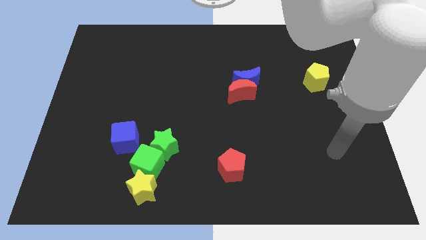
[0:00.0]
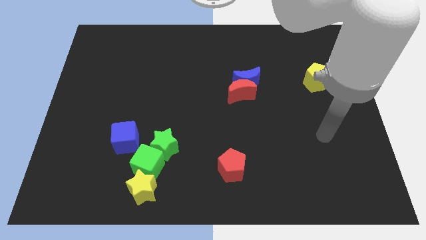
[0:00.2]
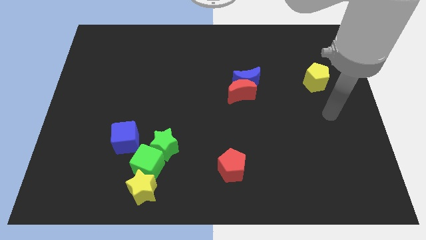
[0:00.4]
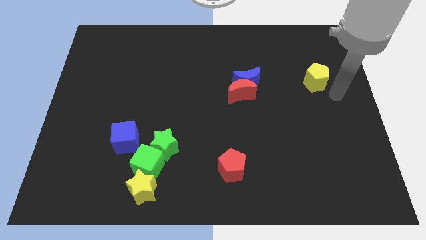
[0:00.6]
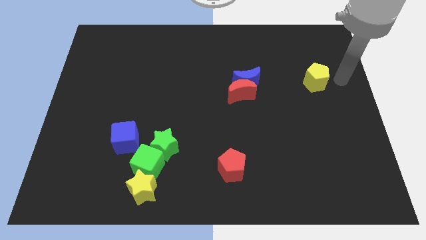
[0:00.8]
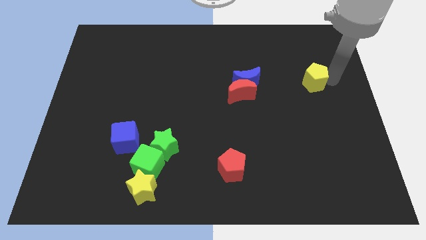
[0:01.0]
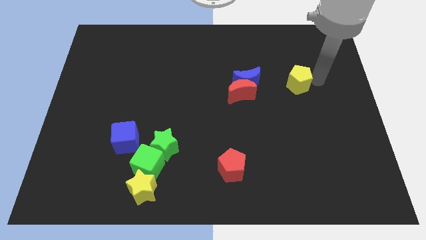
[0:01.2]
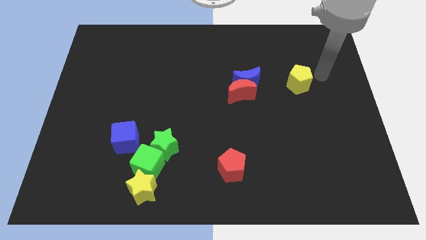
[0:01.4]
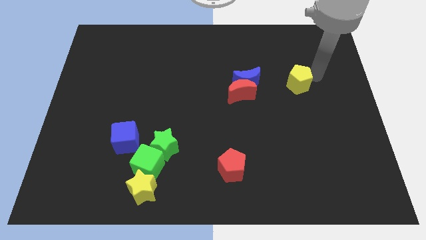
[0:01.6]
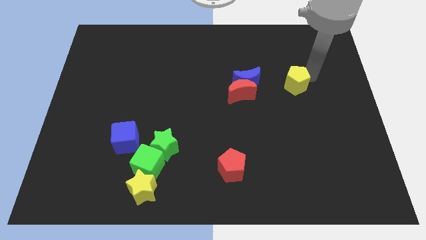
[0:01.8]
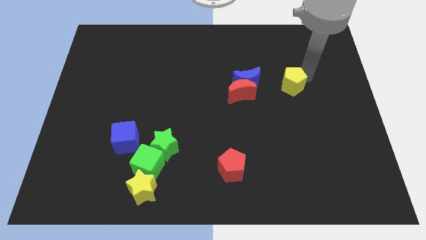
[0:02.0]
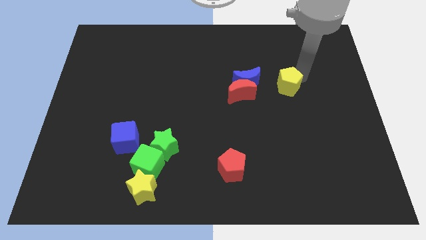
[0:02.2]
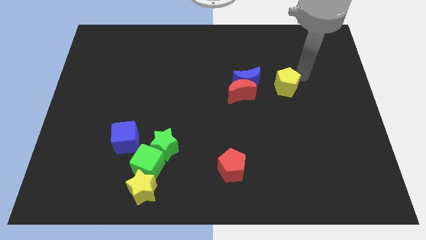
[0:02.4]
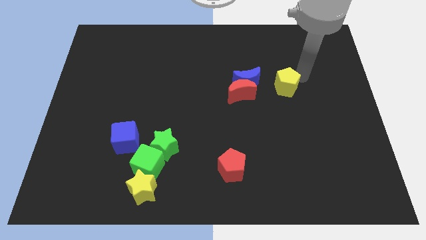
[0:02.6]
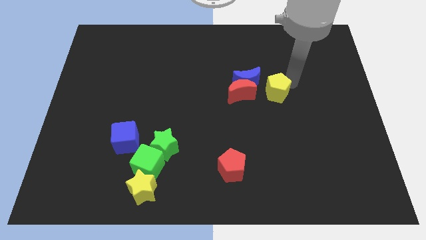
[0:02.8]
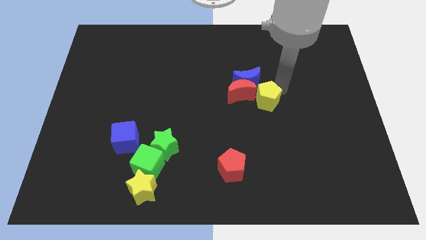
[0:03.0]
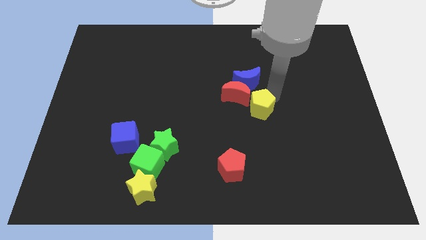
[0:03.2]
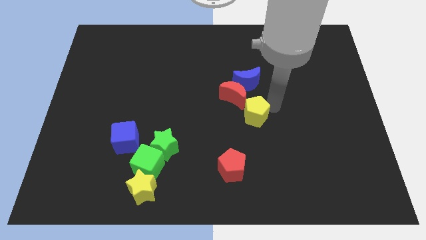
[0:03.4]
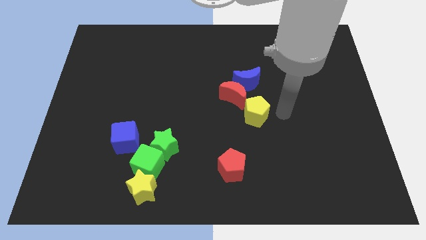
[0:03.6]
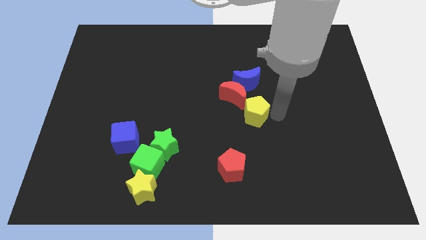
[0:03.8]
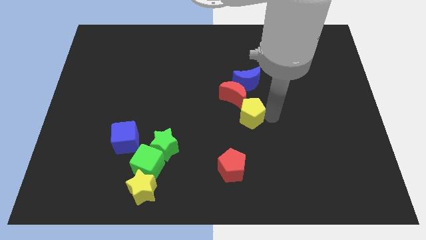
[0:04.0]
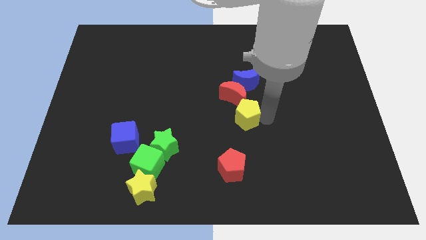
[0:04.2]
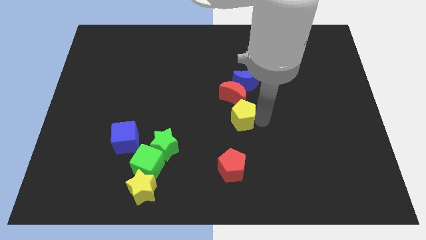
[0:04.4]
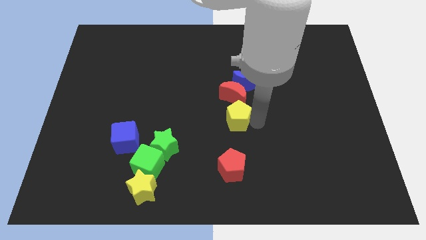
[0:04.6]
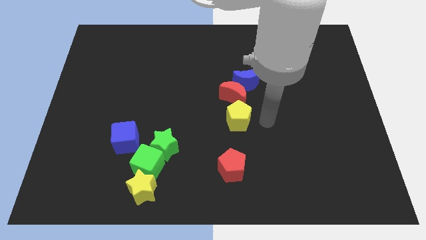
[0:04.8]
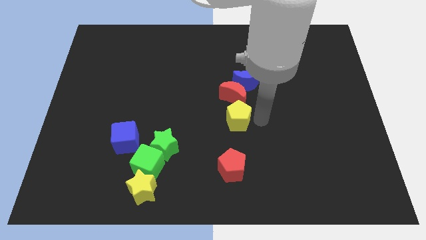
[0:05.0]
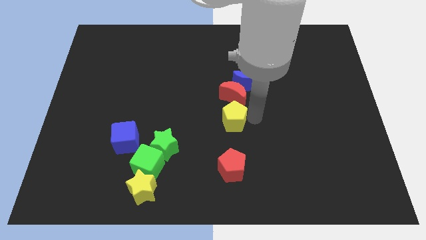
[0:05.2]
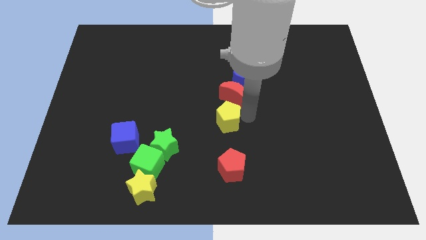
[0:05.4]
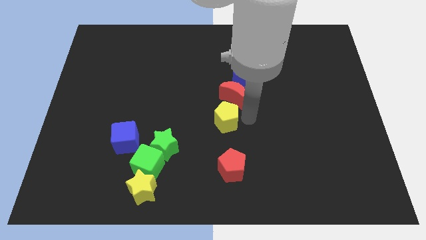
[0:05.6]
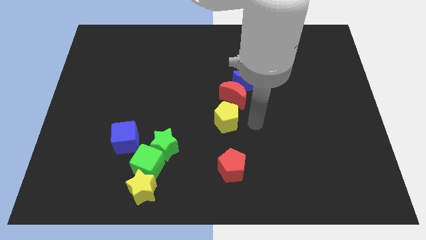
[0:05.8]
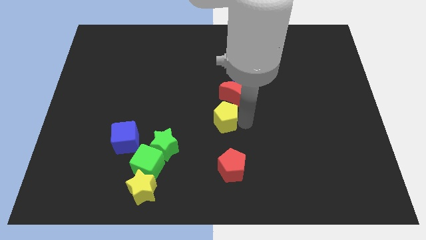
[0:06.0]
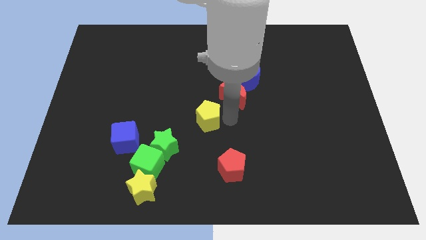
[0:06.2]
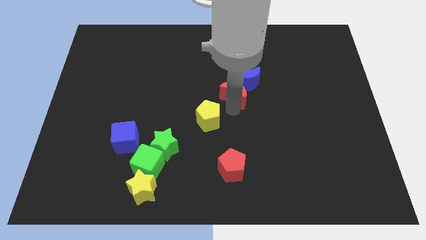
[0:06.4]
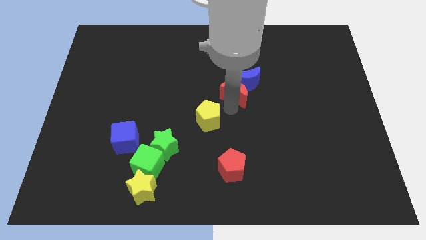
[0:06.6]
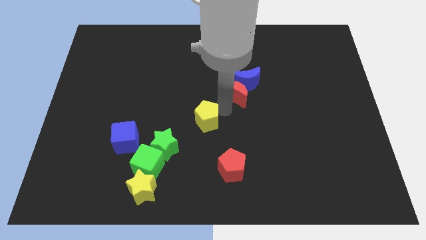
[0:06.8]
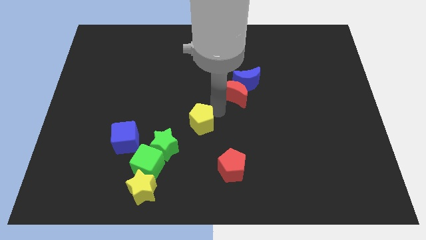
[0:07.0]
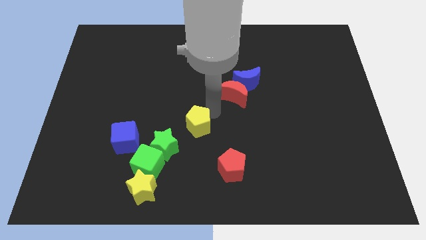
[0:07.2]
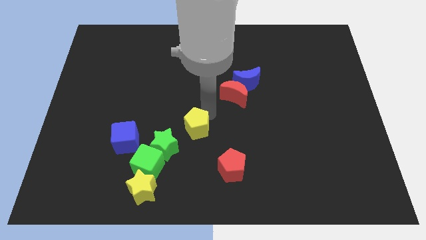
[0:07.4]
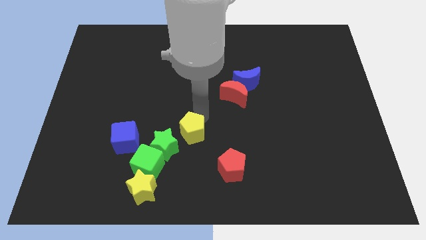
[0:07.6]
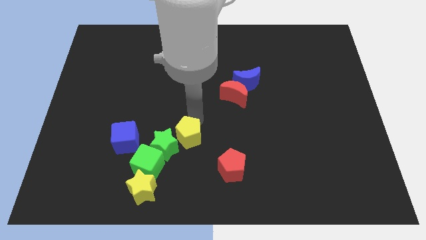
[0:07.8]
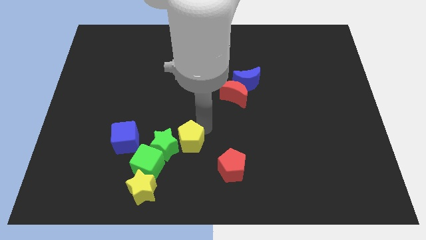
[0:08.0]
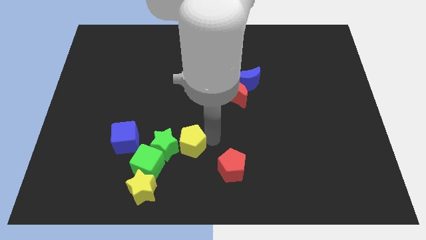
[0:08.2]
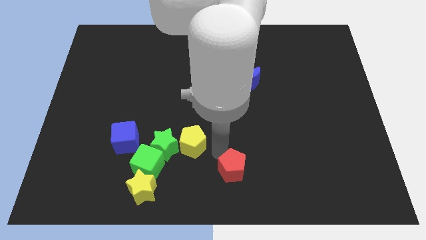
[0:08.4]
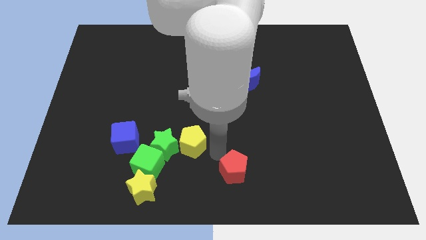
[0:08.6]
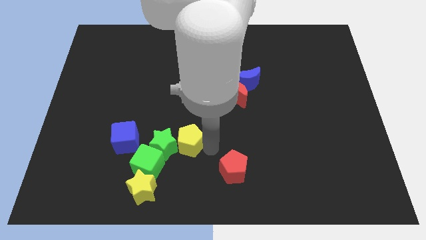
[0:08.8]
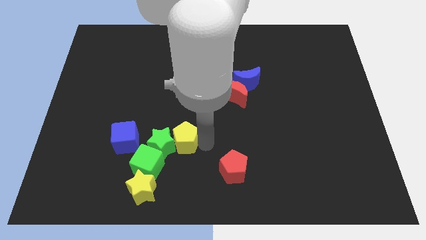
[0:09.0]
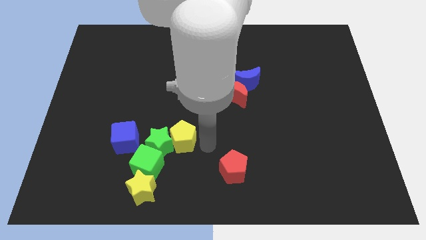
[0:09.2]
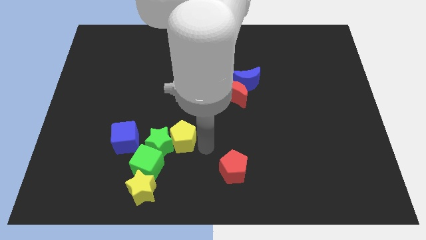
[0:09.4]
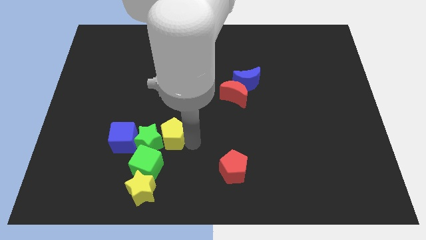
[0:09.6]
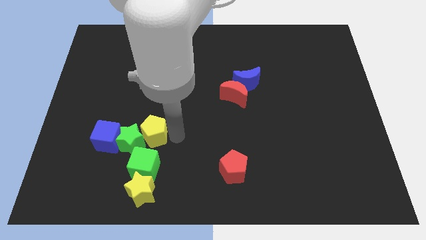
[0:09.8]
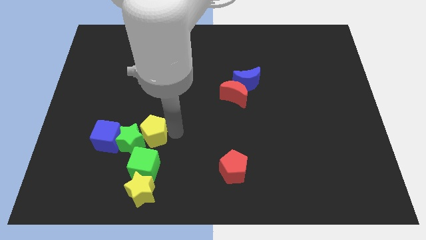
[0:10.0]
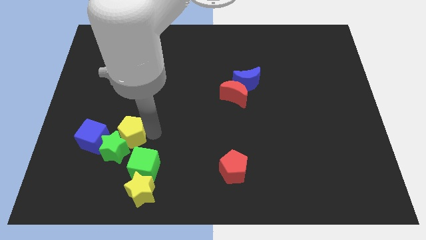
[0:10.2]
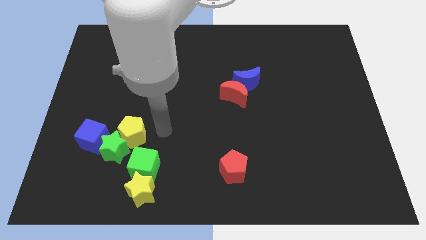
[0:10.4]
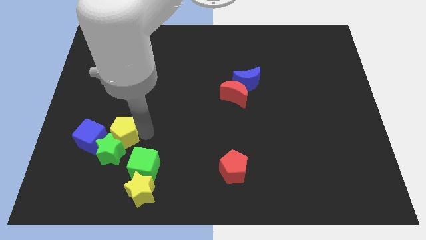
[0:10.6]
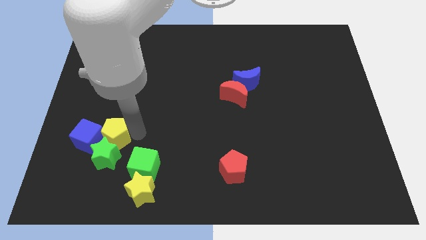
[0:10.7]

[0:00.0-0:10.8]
put the yellow pentagon next to the blue cube

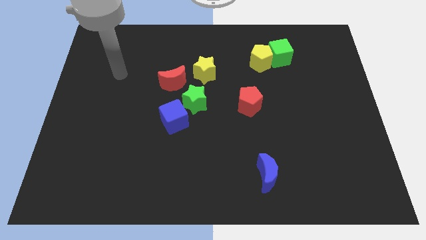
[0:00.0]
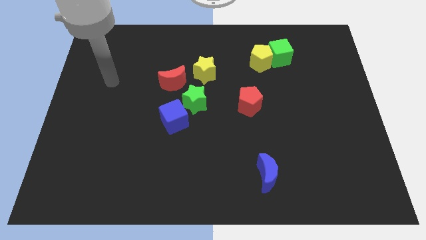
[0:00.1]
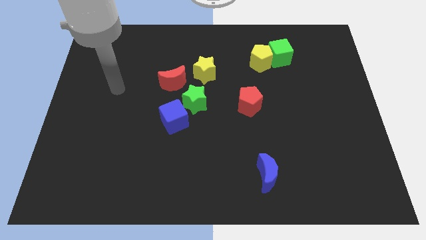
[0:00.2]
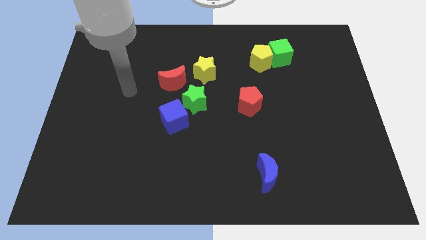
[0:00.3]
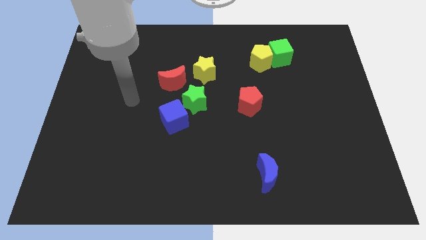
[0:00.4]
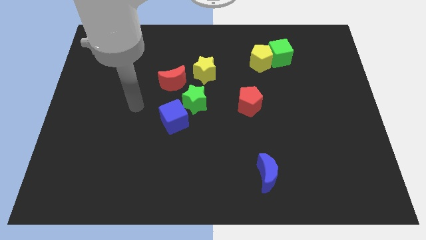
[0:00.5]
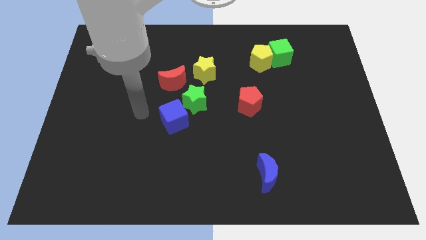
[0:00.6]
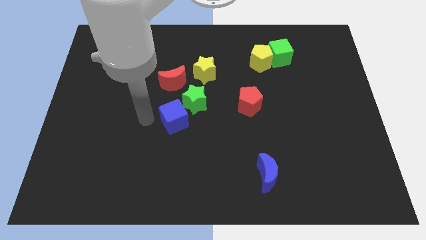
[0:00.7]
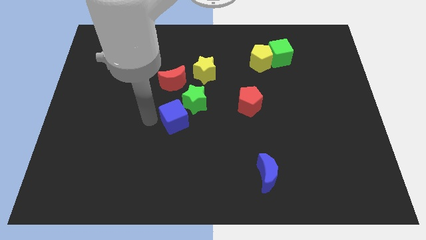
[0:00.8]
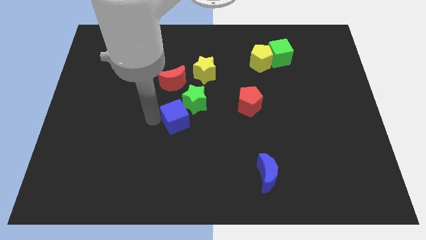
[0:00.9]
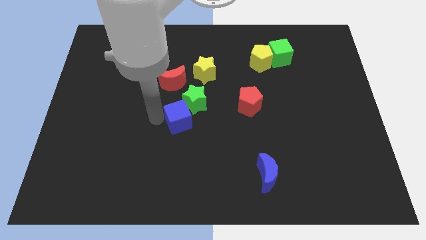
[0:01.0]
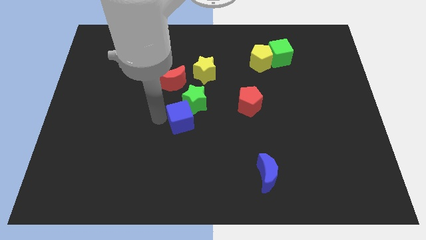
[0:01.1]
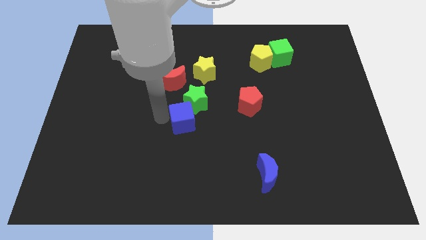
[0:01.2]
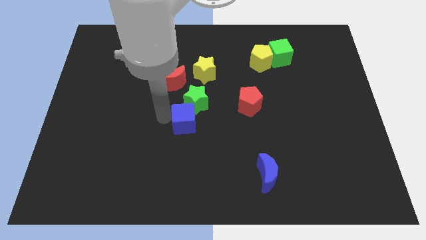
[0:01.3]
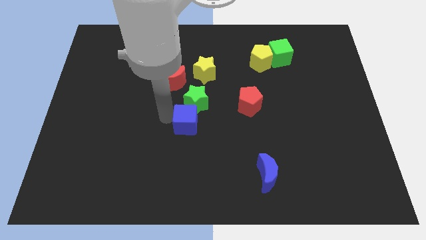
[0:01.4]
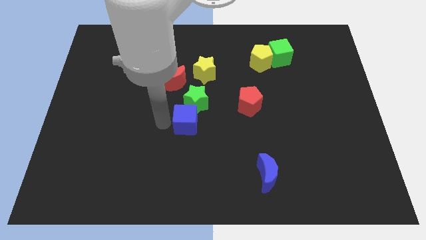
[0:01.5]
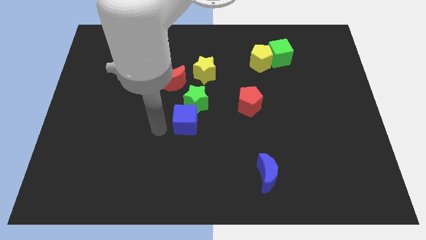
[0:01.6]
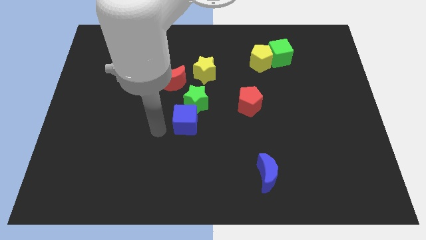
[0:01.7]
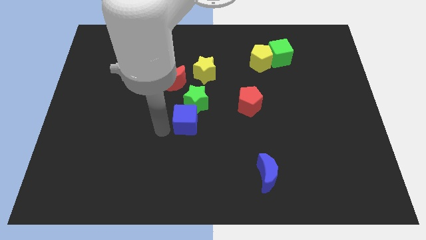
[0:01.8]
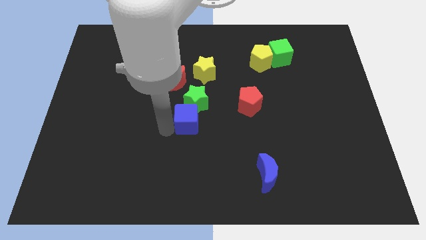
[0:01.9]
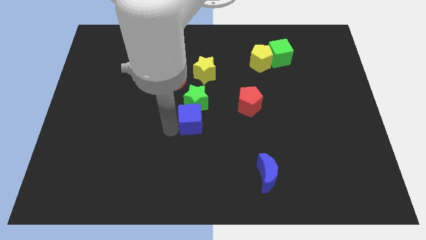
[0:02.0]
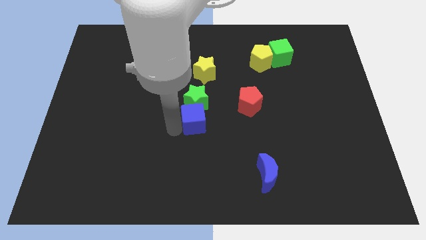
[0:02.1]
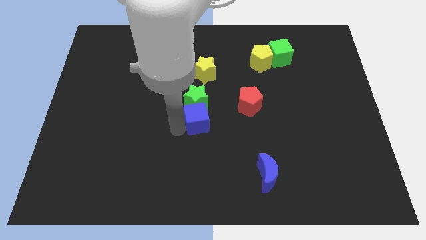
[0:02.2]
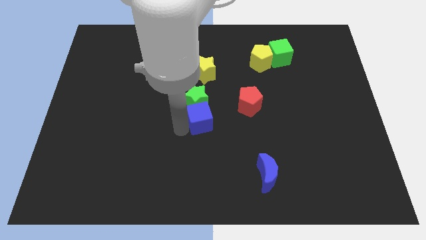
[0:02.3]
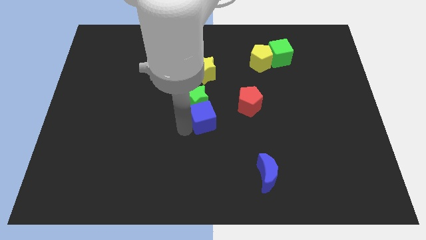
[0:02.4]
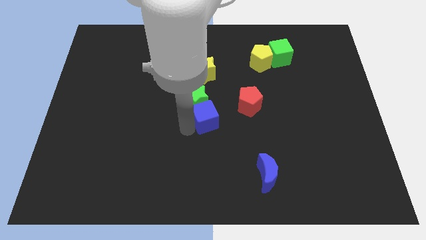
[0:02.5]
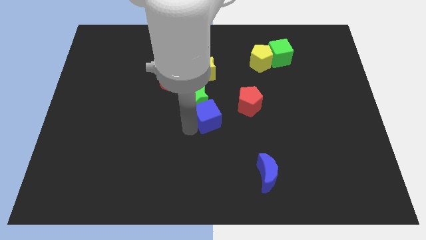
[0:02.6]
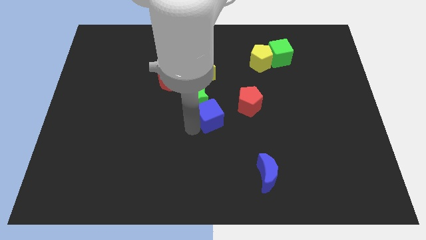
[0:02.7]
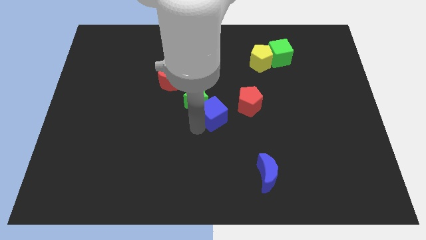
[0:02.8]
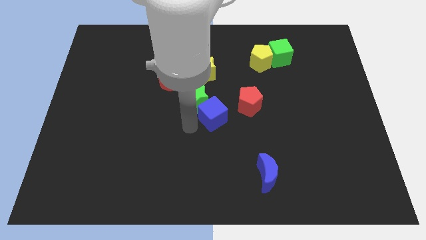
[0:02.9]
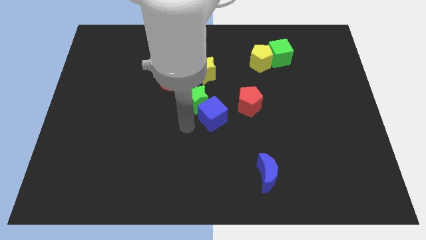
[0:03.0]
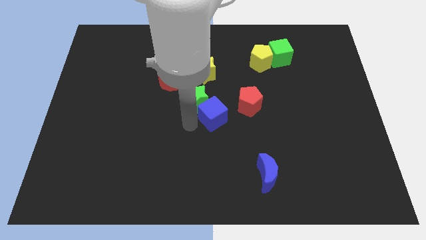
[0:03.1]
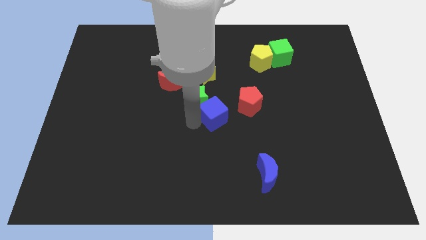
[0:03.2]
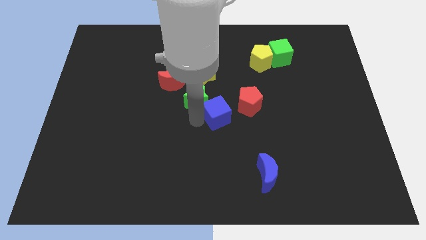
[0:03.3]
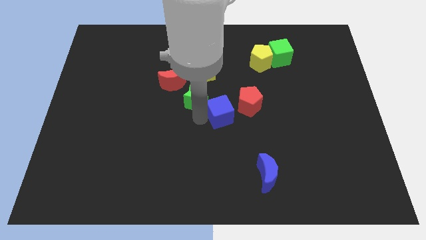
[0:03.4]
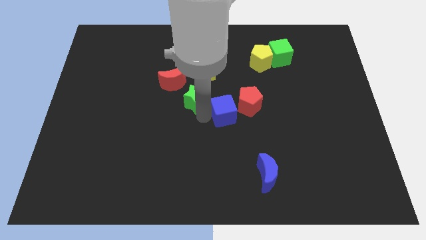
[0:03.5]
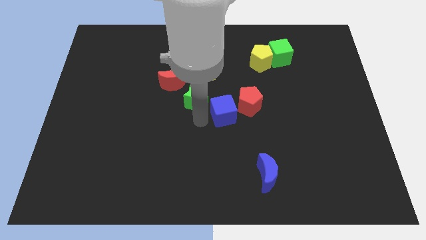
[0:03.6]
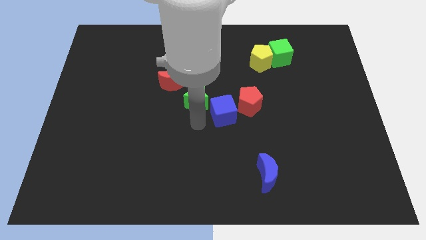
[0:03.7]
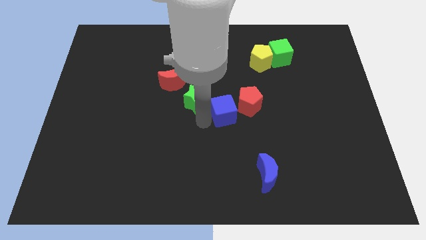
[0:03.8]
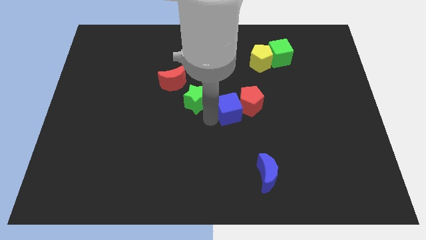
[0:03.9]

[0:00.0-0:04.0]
slide the blue cube close to the red pentagon
